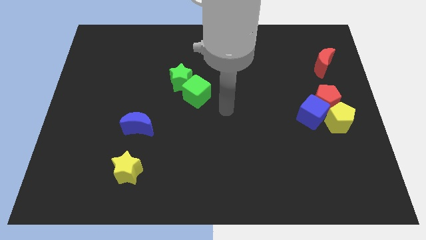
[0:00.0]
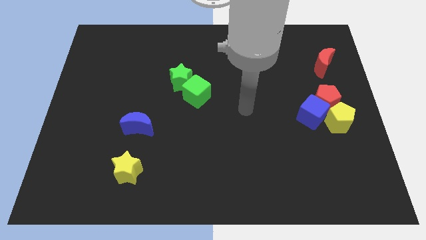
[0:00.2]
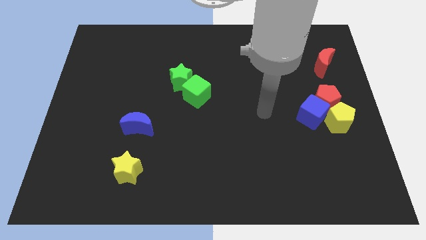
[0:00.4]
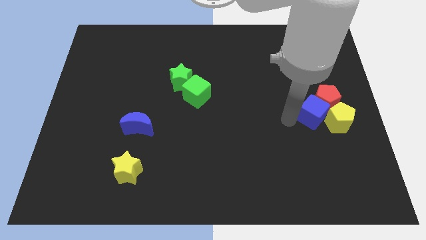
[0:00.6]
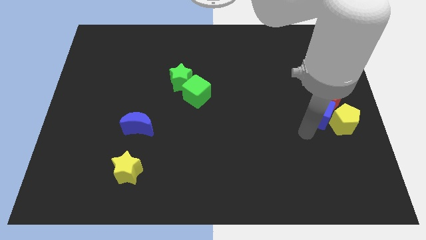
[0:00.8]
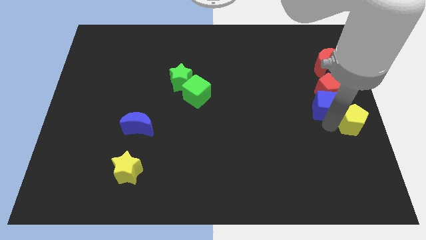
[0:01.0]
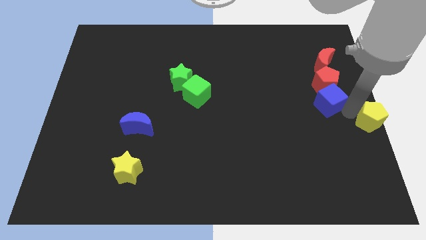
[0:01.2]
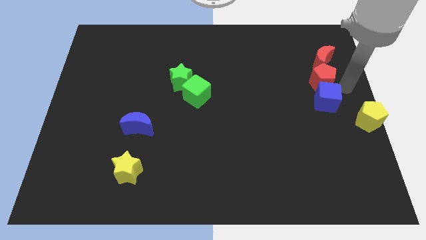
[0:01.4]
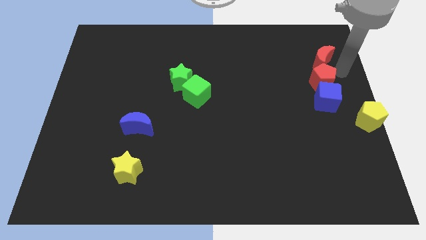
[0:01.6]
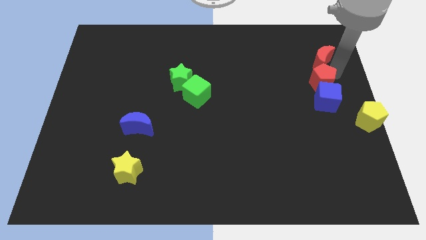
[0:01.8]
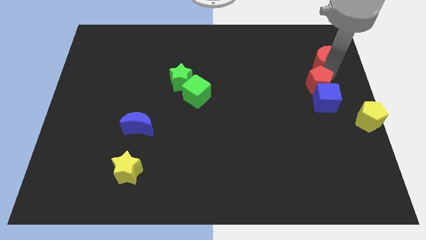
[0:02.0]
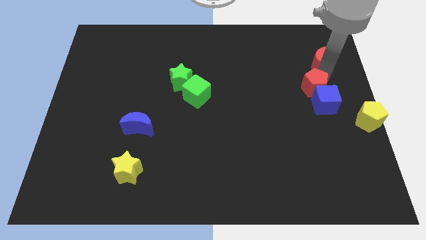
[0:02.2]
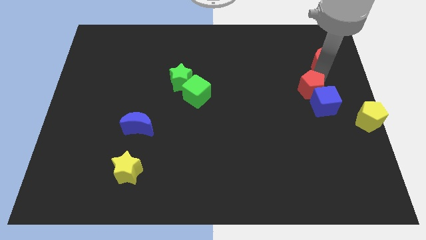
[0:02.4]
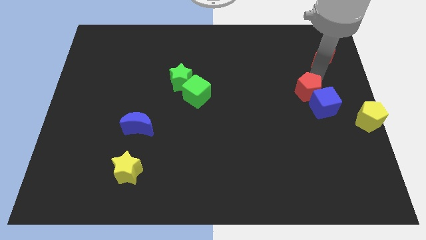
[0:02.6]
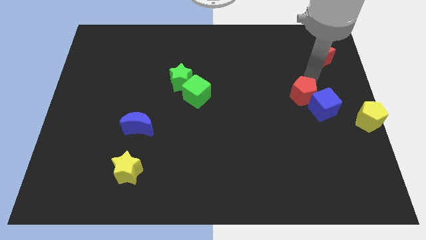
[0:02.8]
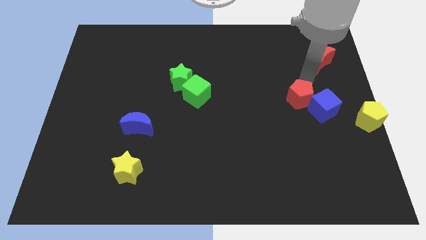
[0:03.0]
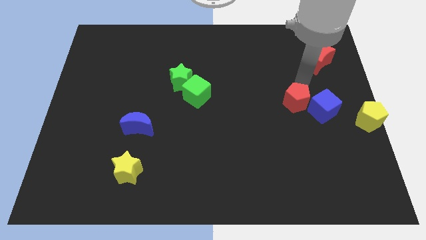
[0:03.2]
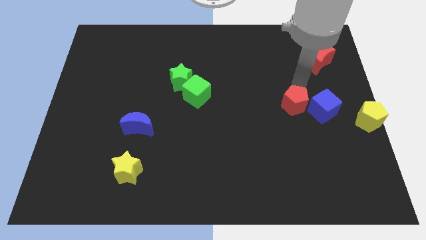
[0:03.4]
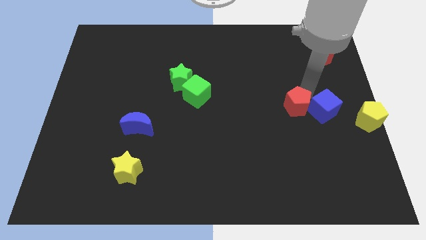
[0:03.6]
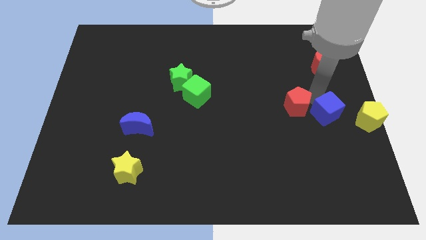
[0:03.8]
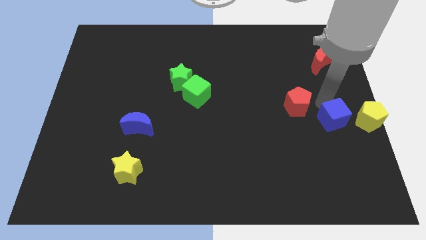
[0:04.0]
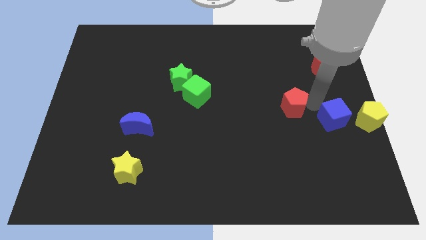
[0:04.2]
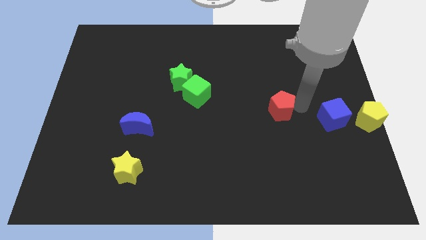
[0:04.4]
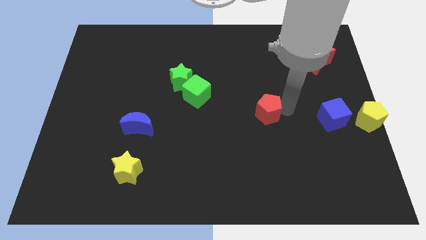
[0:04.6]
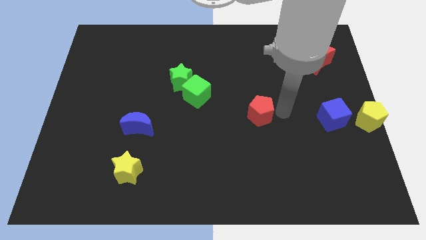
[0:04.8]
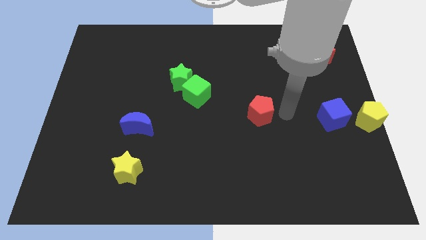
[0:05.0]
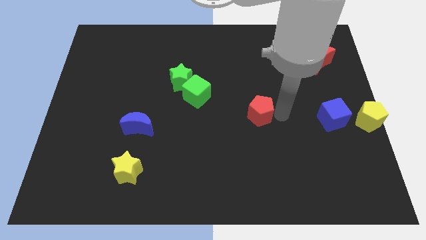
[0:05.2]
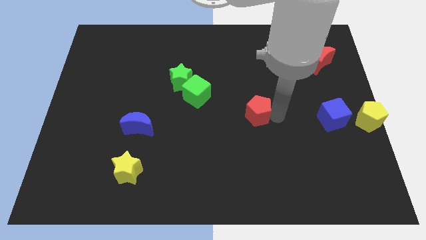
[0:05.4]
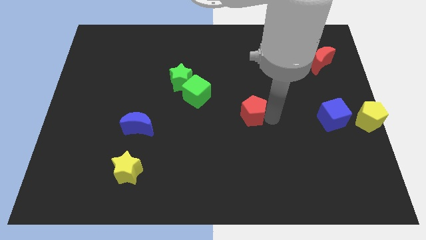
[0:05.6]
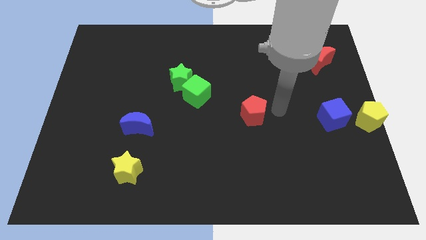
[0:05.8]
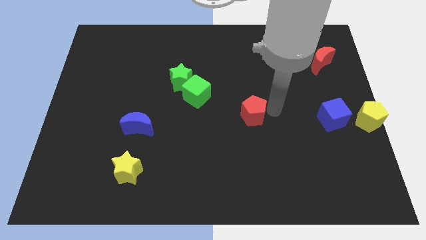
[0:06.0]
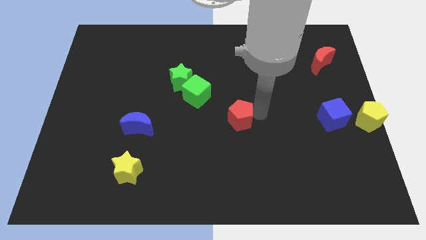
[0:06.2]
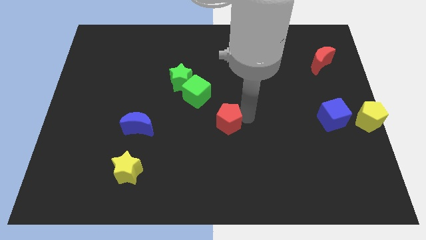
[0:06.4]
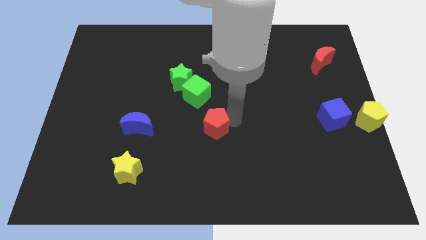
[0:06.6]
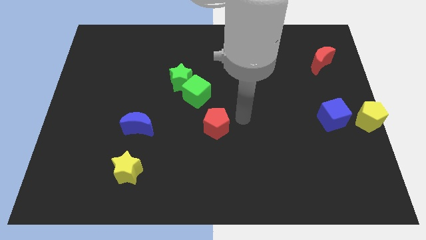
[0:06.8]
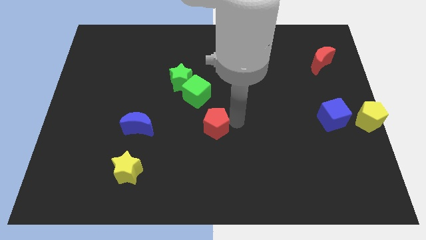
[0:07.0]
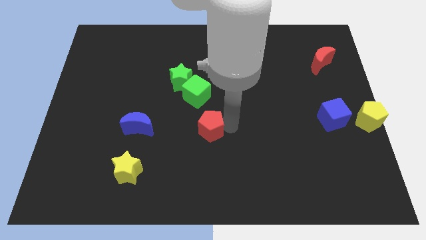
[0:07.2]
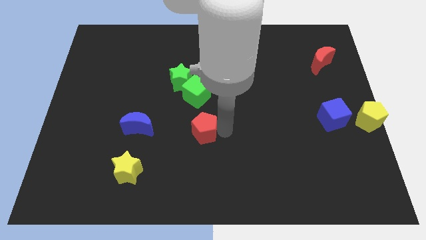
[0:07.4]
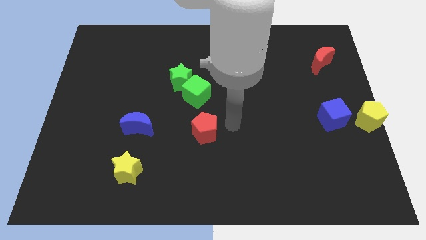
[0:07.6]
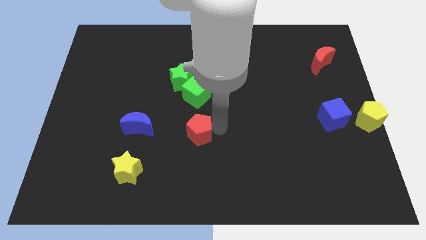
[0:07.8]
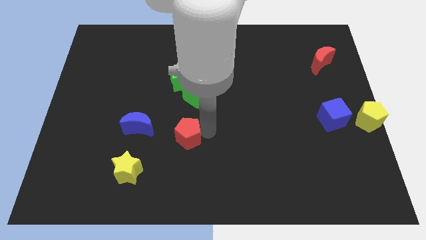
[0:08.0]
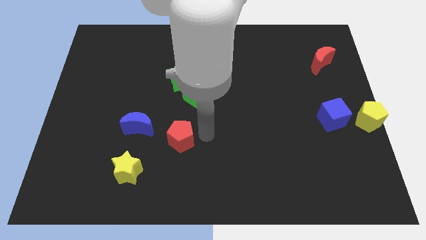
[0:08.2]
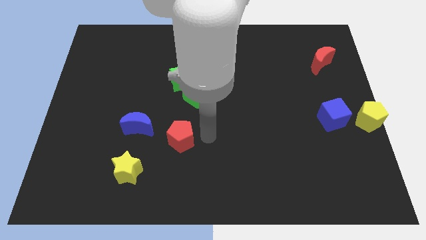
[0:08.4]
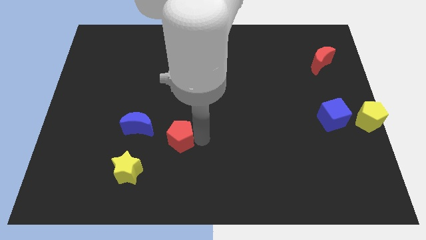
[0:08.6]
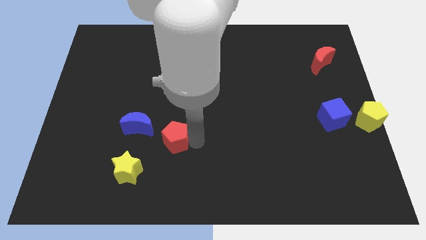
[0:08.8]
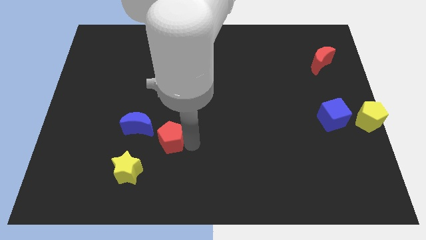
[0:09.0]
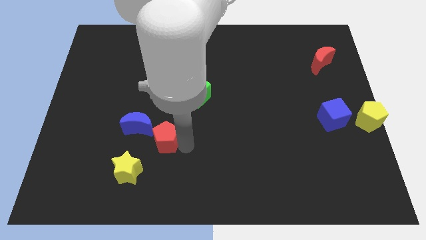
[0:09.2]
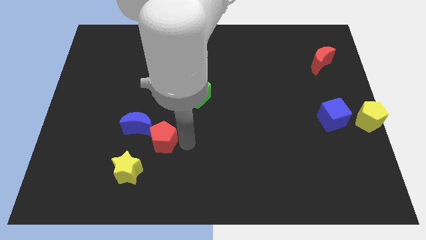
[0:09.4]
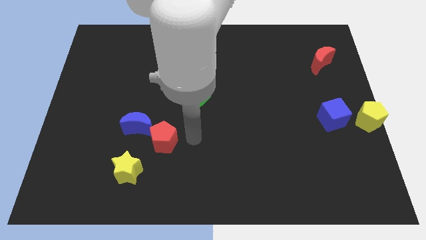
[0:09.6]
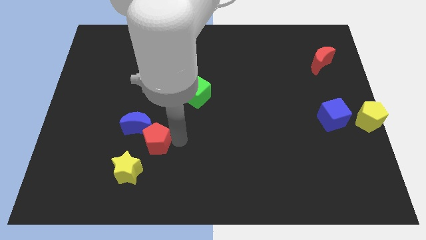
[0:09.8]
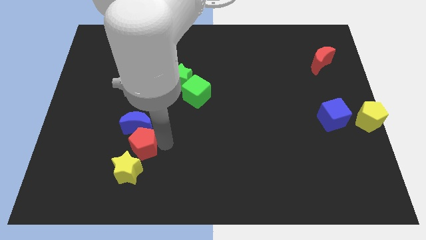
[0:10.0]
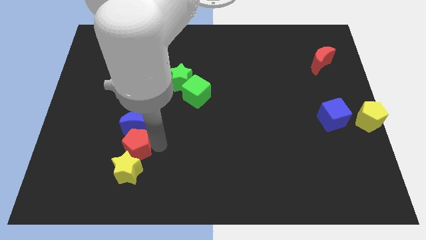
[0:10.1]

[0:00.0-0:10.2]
put the red pentagon to the top left side of the yellow star

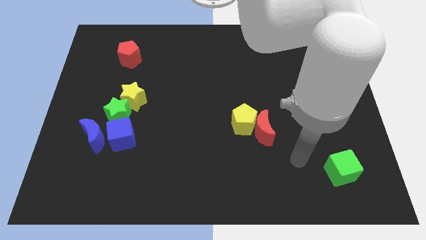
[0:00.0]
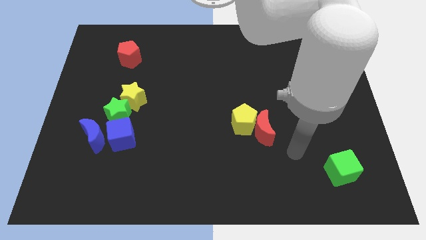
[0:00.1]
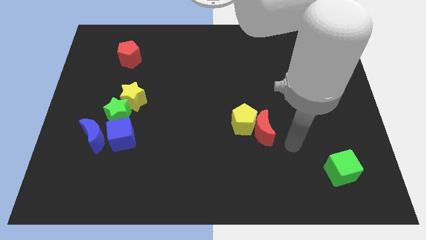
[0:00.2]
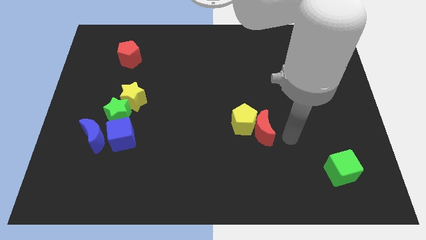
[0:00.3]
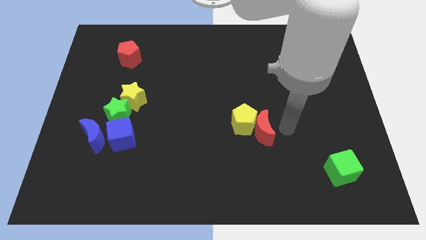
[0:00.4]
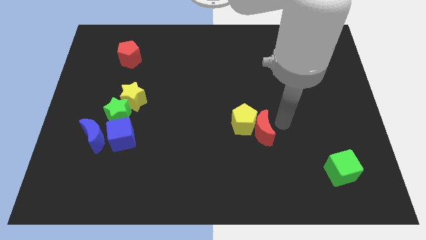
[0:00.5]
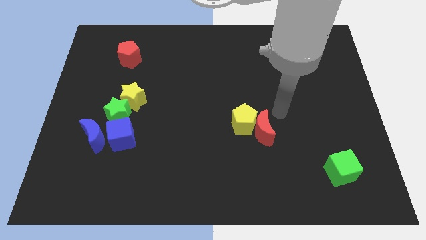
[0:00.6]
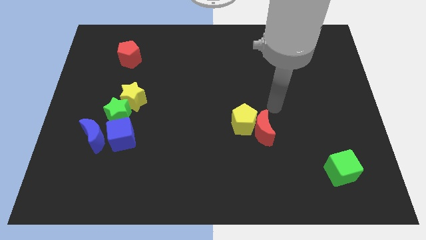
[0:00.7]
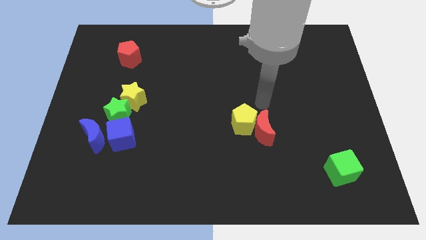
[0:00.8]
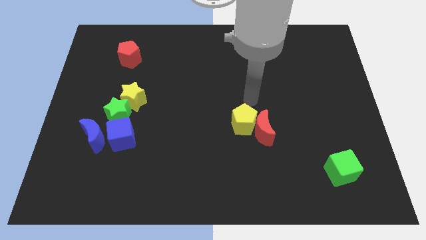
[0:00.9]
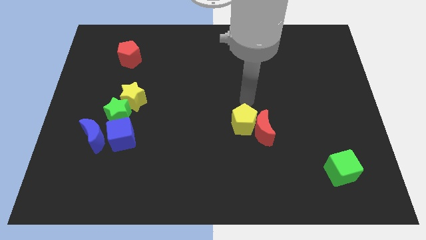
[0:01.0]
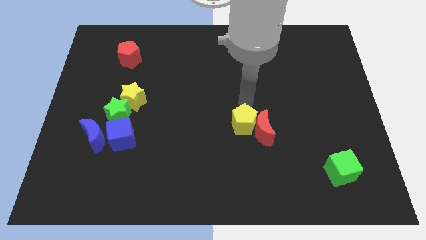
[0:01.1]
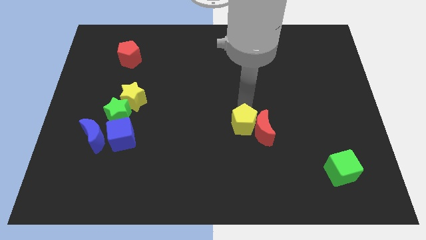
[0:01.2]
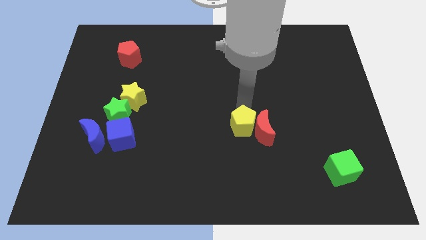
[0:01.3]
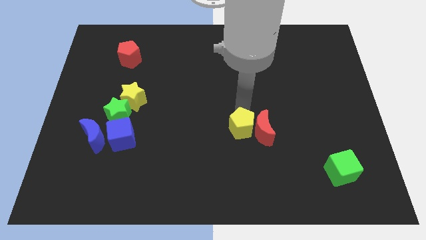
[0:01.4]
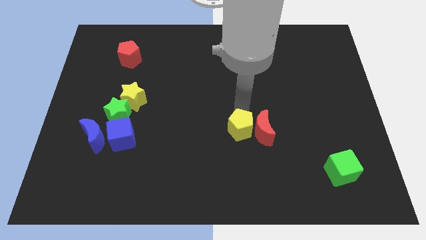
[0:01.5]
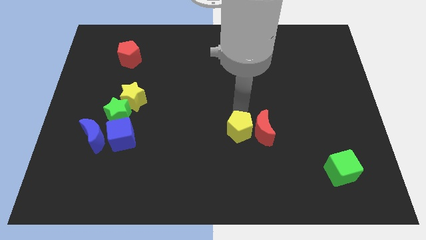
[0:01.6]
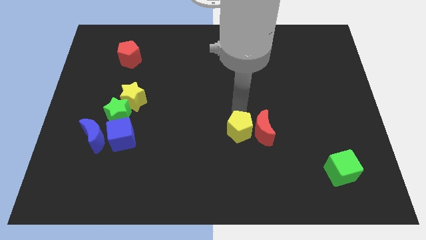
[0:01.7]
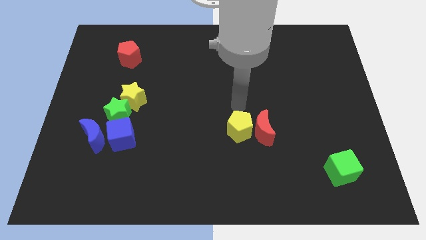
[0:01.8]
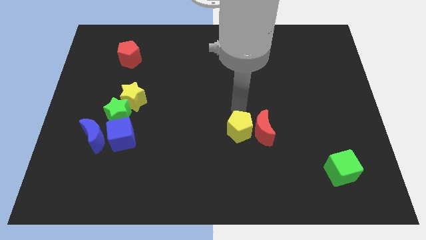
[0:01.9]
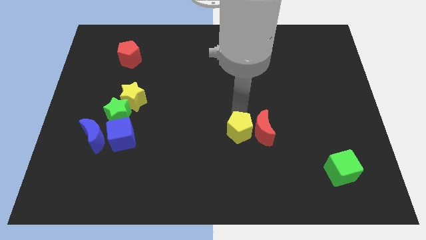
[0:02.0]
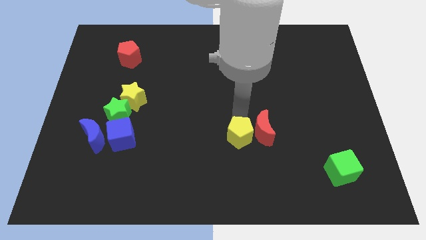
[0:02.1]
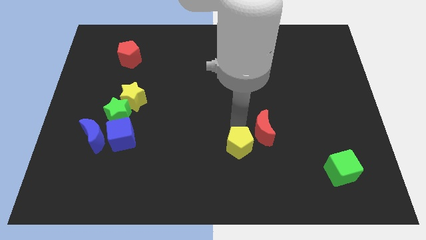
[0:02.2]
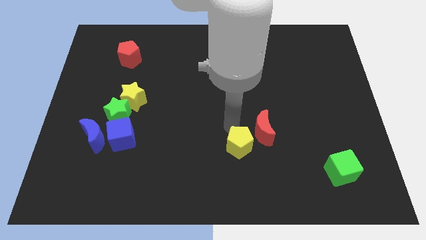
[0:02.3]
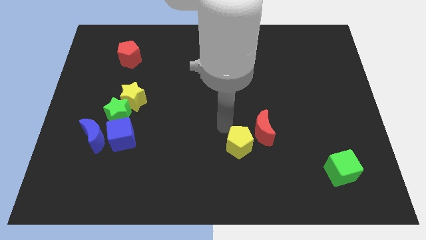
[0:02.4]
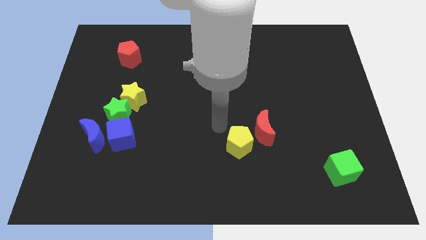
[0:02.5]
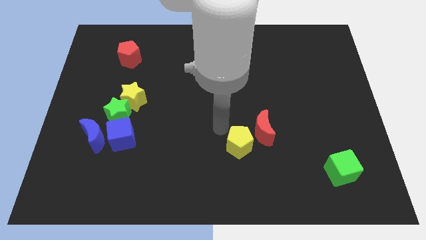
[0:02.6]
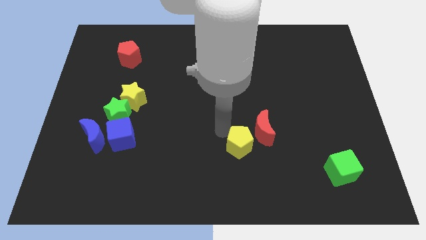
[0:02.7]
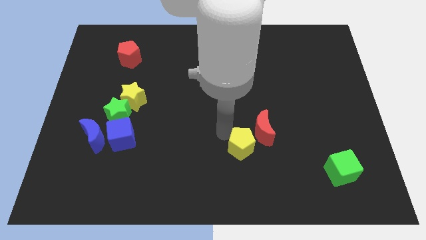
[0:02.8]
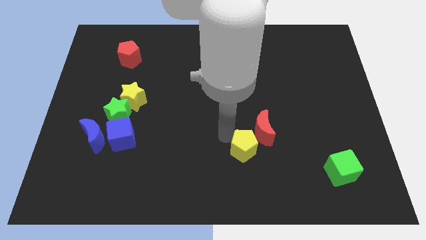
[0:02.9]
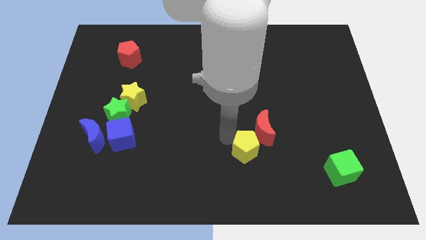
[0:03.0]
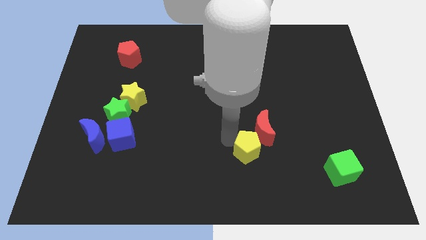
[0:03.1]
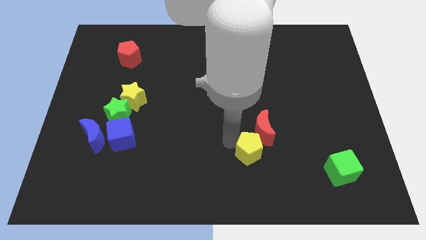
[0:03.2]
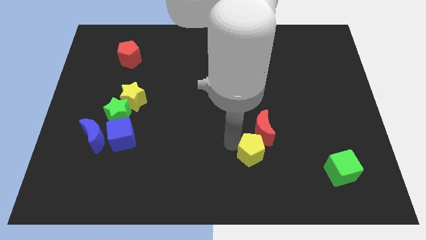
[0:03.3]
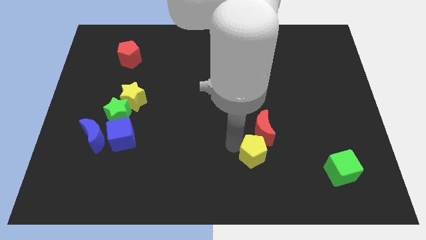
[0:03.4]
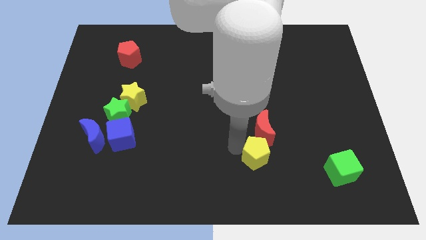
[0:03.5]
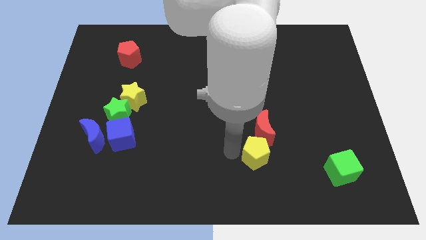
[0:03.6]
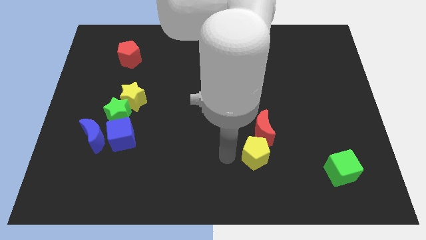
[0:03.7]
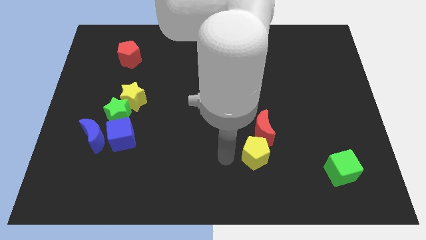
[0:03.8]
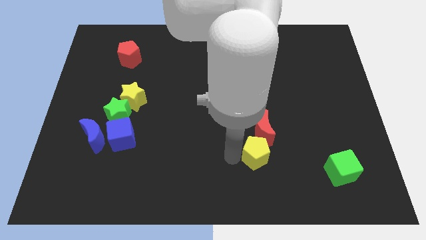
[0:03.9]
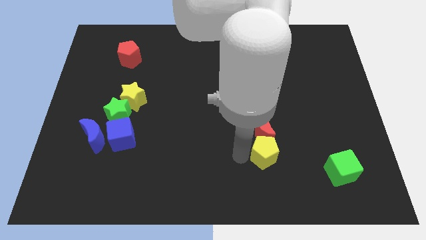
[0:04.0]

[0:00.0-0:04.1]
put the yellow pentagon diagonally down and to the right of the red moon
